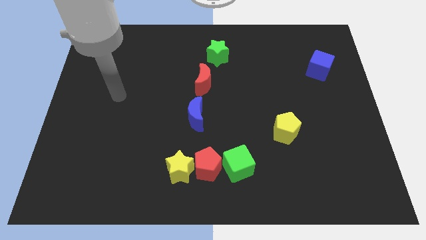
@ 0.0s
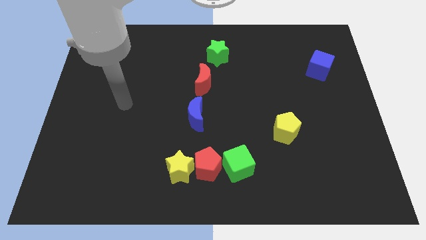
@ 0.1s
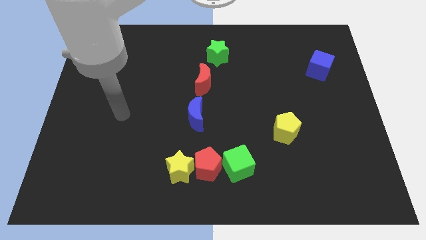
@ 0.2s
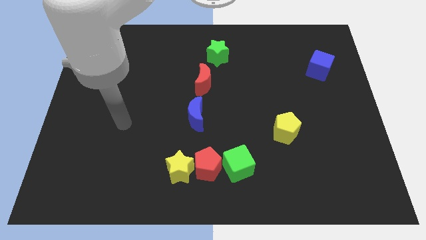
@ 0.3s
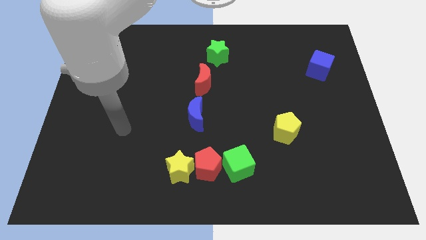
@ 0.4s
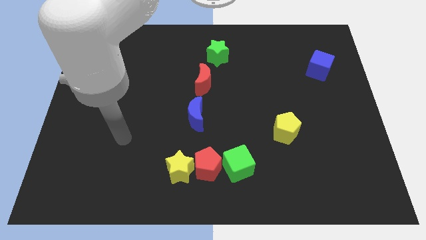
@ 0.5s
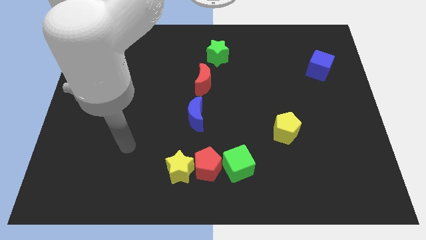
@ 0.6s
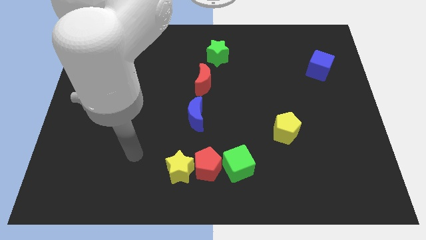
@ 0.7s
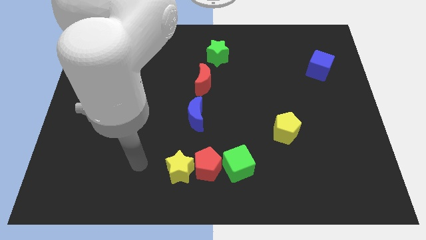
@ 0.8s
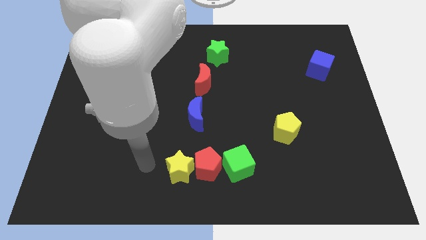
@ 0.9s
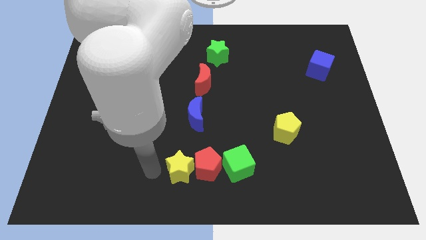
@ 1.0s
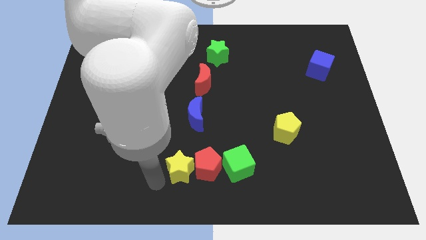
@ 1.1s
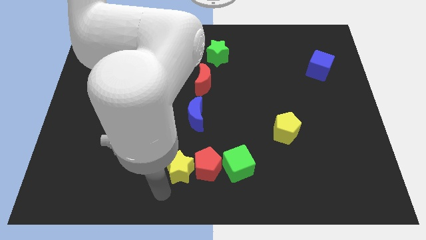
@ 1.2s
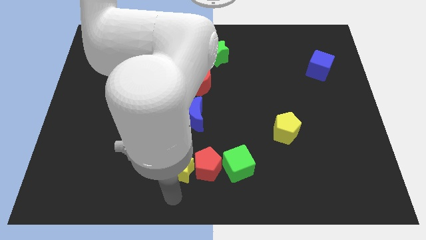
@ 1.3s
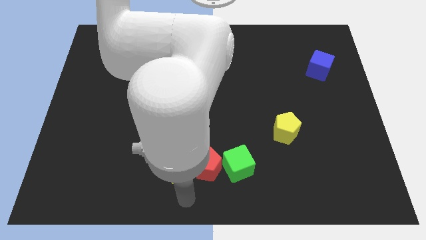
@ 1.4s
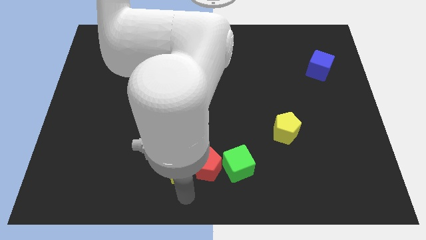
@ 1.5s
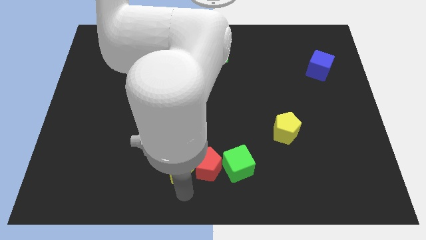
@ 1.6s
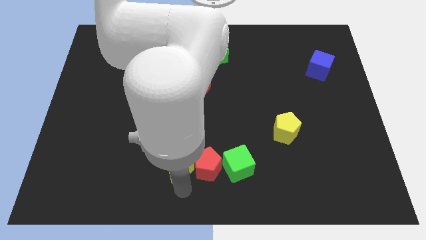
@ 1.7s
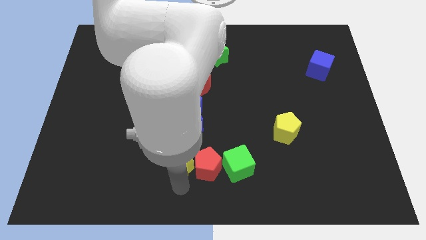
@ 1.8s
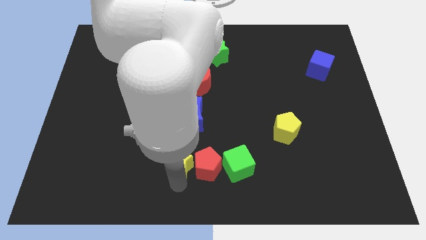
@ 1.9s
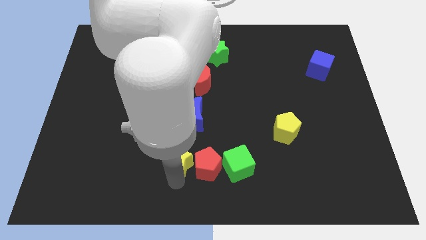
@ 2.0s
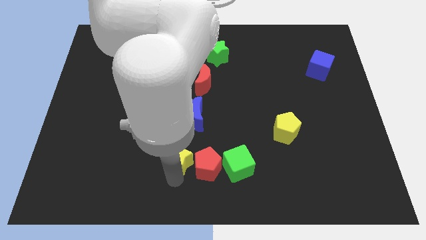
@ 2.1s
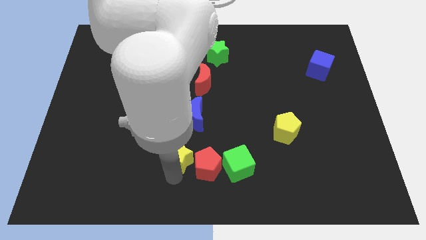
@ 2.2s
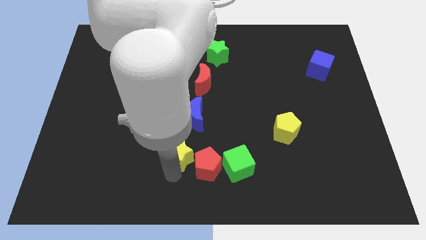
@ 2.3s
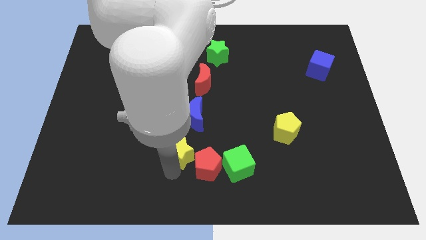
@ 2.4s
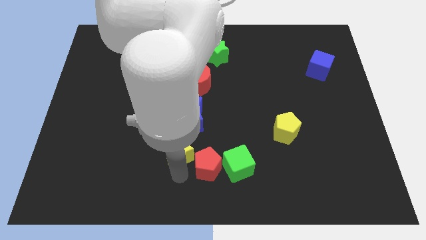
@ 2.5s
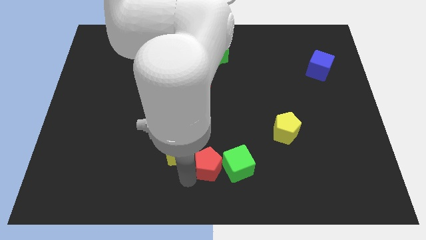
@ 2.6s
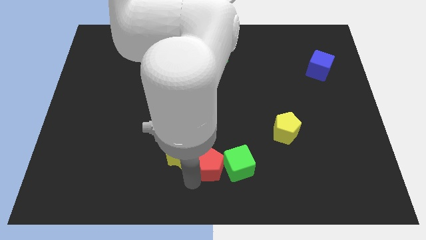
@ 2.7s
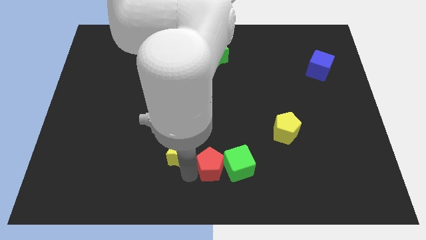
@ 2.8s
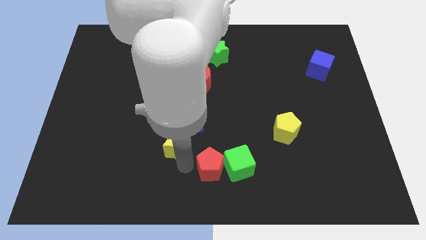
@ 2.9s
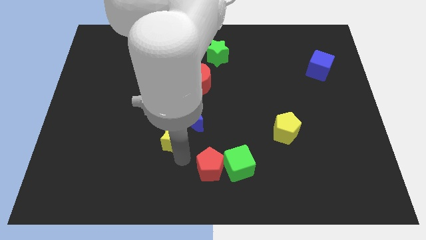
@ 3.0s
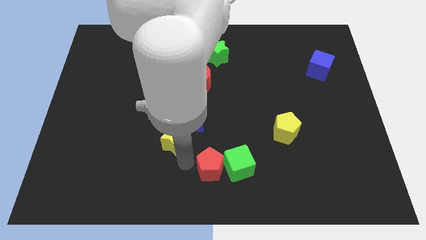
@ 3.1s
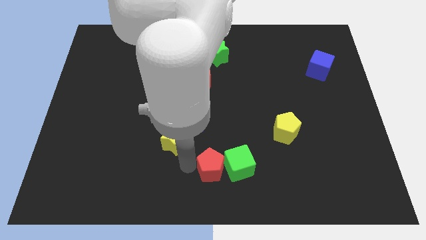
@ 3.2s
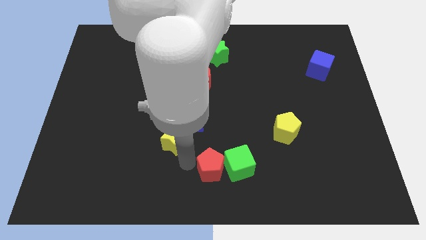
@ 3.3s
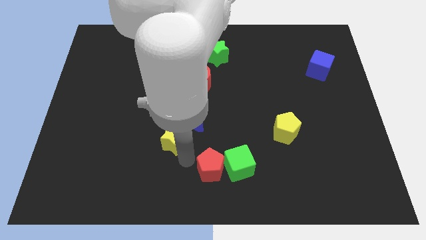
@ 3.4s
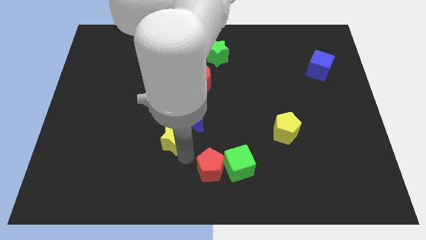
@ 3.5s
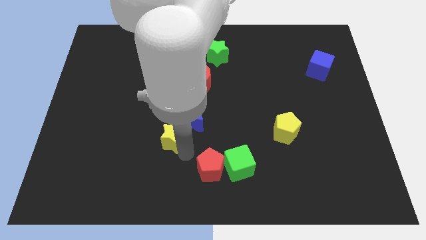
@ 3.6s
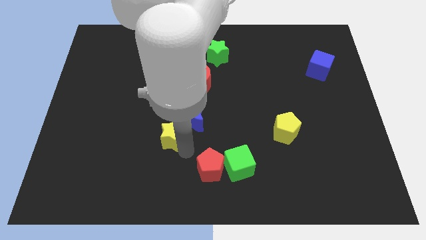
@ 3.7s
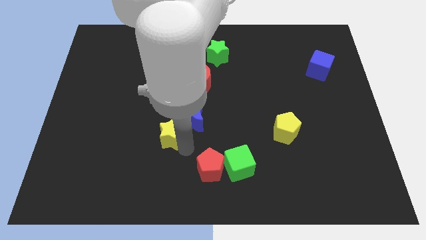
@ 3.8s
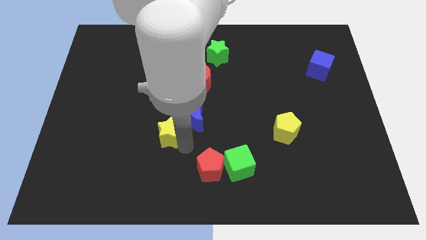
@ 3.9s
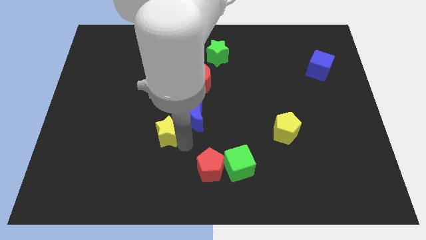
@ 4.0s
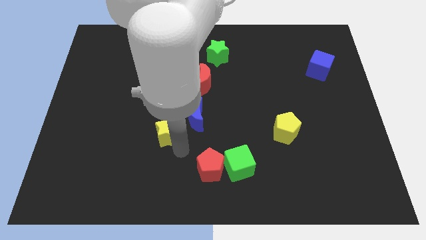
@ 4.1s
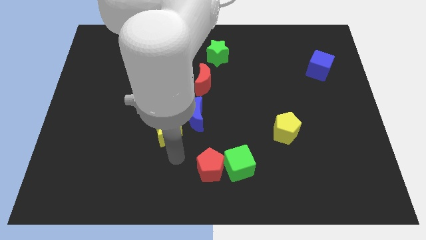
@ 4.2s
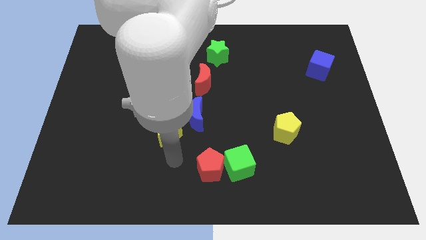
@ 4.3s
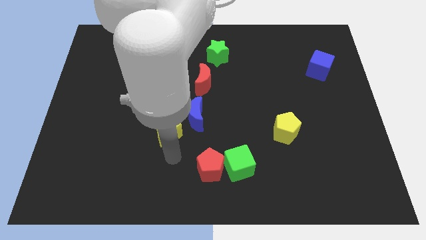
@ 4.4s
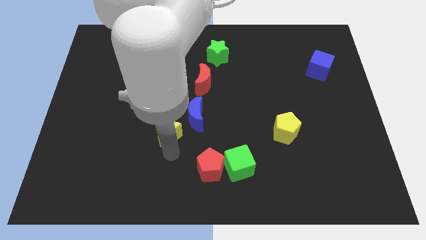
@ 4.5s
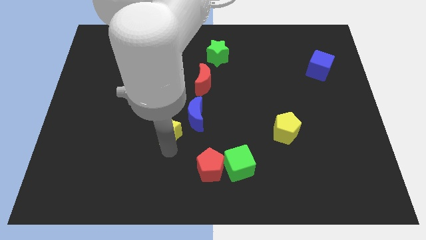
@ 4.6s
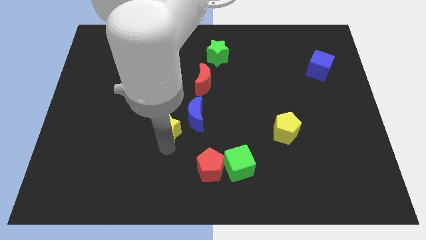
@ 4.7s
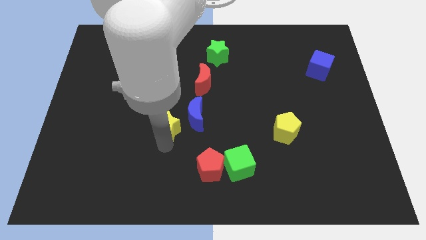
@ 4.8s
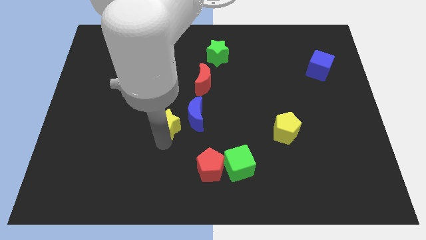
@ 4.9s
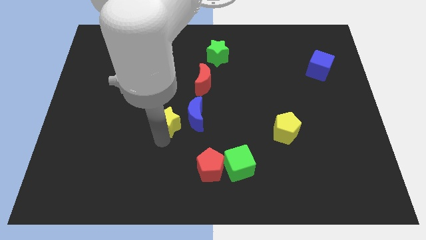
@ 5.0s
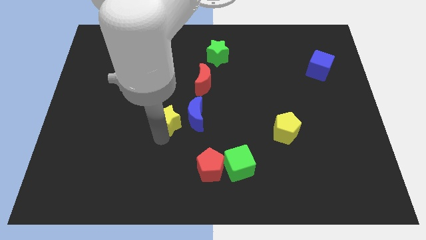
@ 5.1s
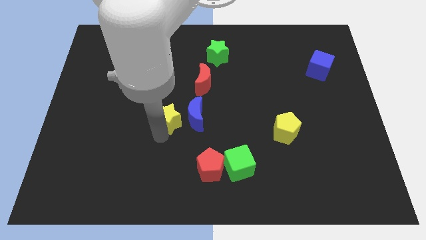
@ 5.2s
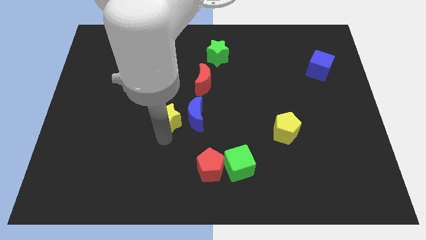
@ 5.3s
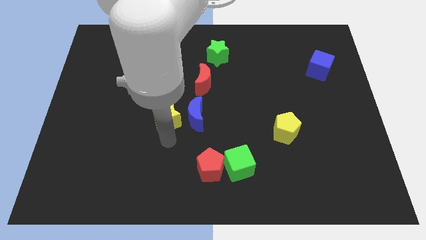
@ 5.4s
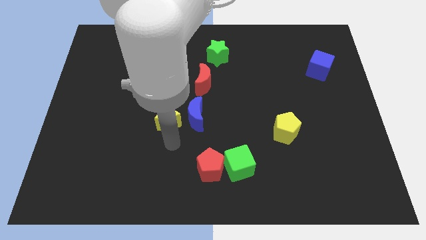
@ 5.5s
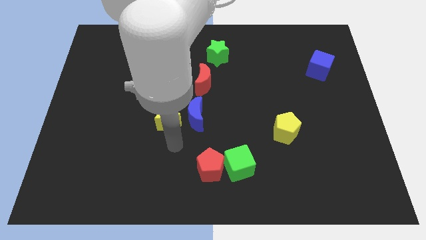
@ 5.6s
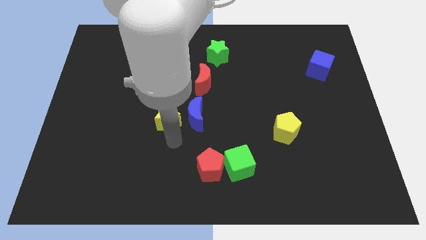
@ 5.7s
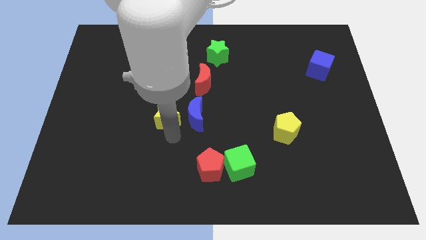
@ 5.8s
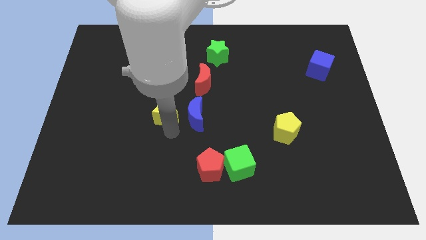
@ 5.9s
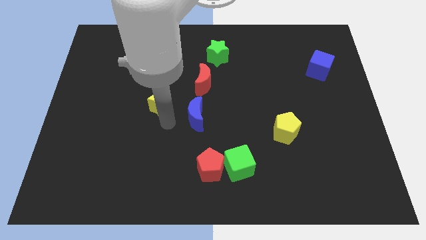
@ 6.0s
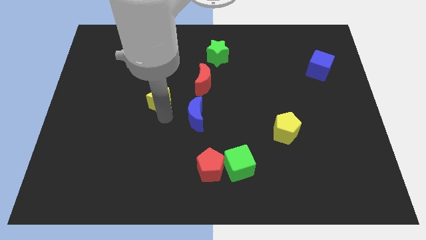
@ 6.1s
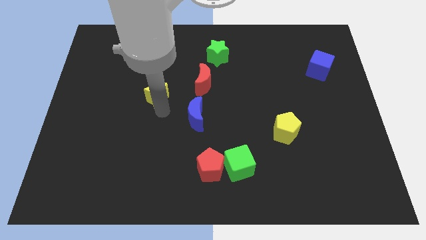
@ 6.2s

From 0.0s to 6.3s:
put the yellow star to the left side of the red moon
